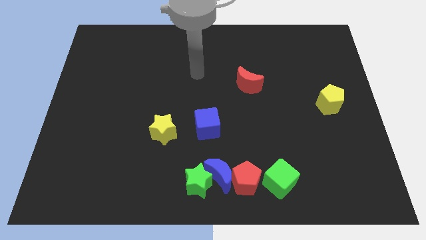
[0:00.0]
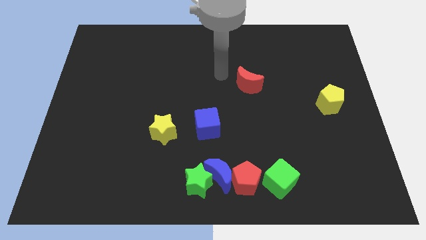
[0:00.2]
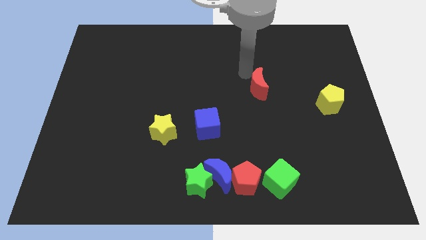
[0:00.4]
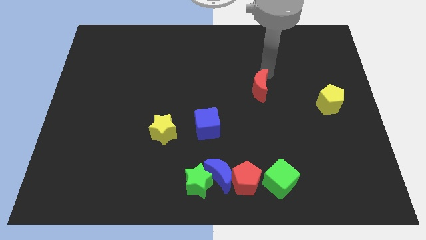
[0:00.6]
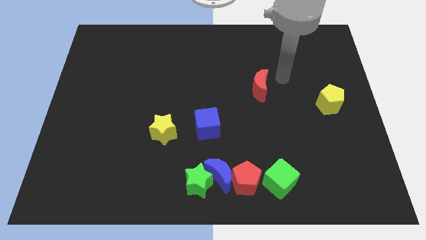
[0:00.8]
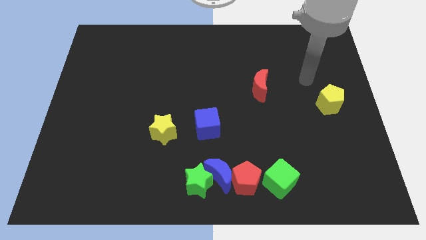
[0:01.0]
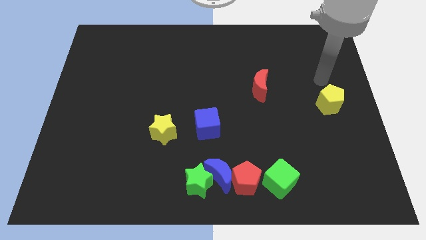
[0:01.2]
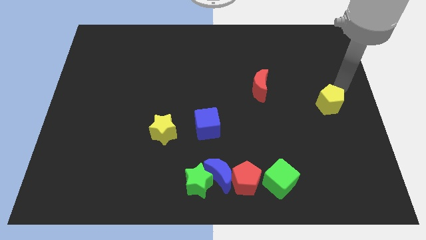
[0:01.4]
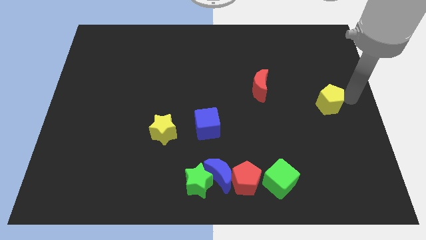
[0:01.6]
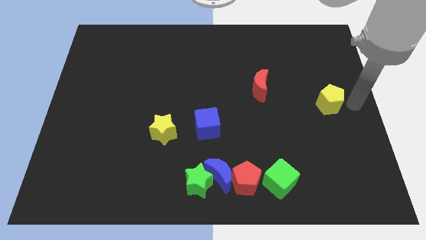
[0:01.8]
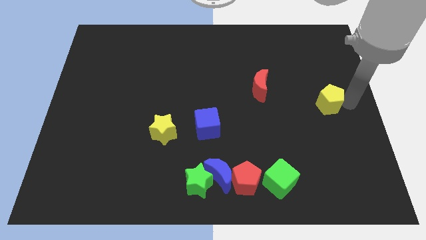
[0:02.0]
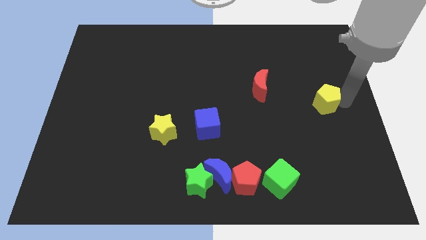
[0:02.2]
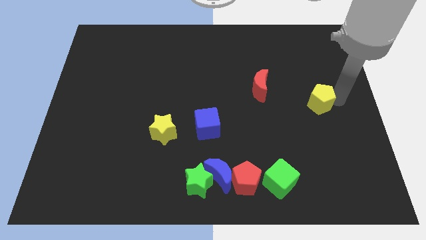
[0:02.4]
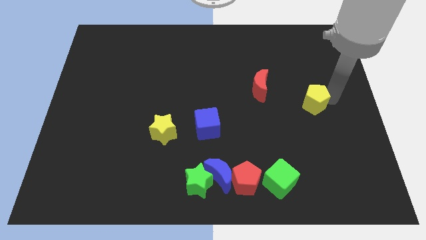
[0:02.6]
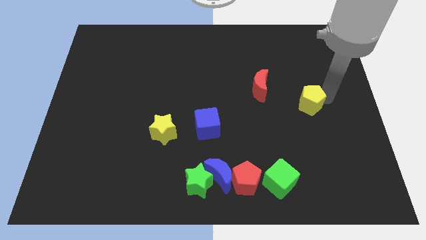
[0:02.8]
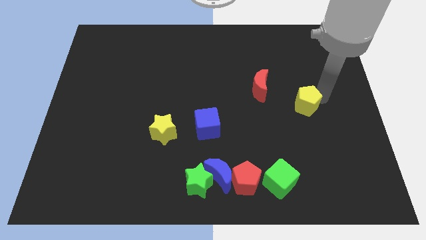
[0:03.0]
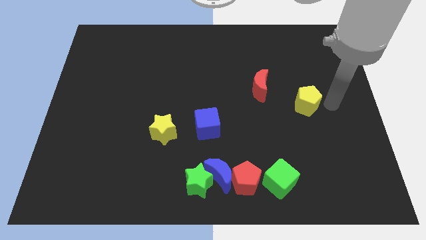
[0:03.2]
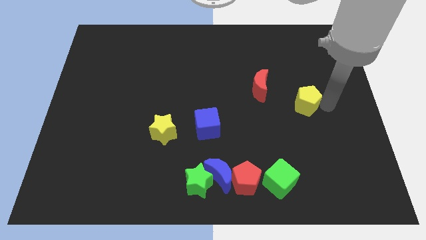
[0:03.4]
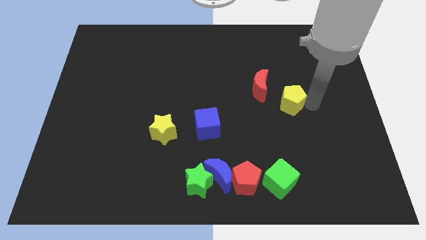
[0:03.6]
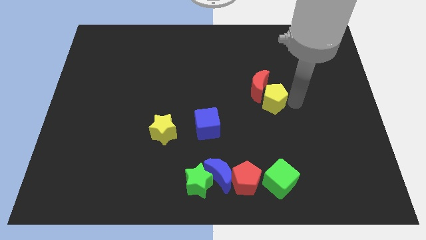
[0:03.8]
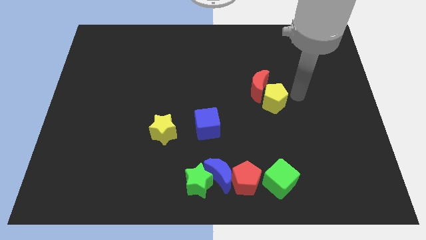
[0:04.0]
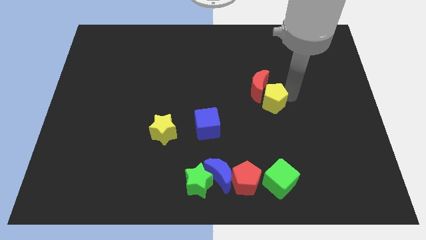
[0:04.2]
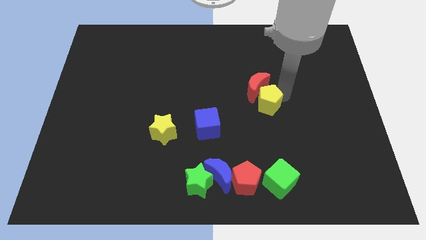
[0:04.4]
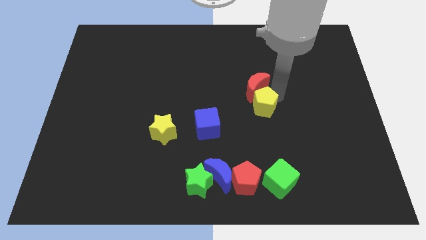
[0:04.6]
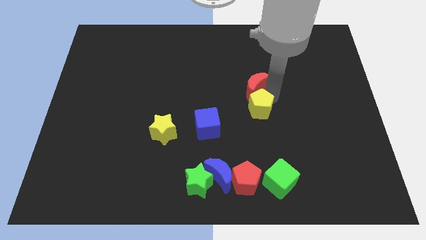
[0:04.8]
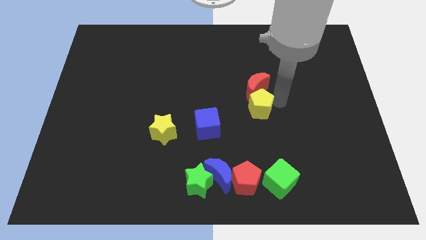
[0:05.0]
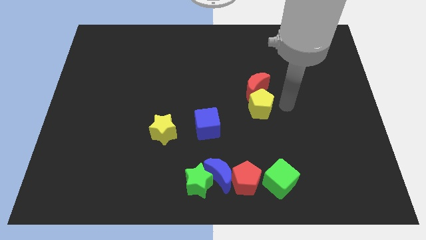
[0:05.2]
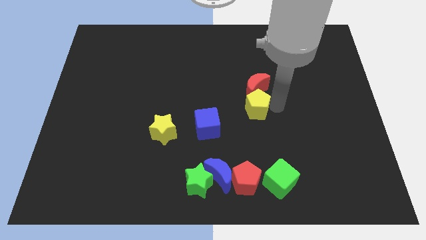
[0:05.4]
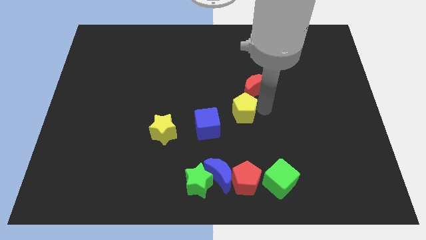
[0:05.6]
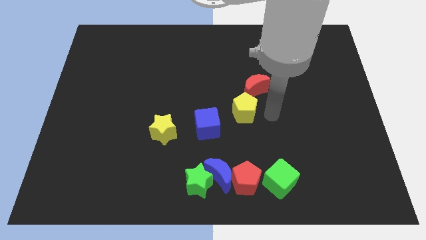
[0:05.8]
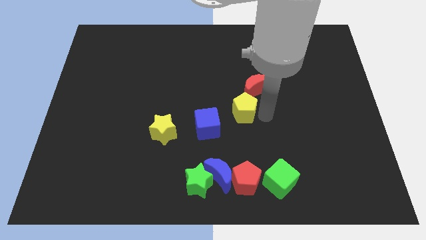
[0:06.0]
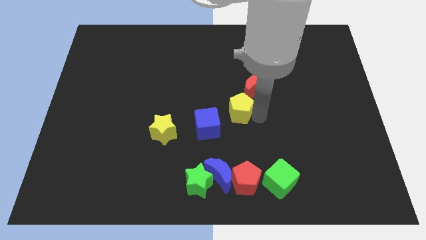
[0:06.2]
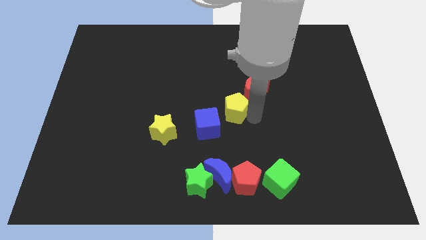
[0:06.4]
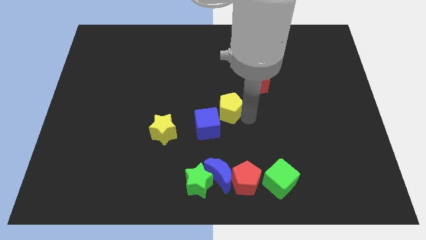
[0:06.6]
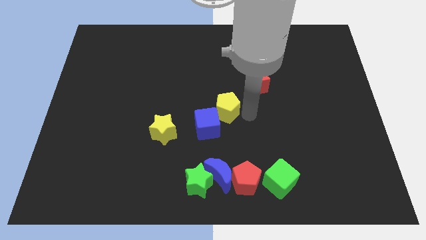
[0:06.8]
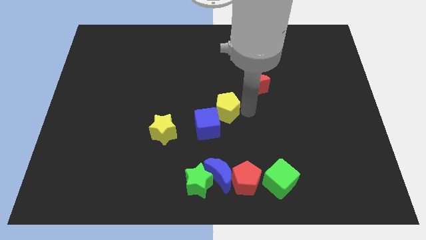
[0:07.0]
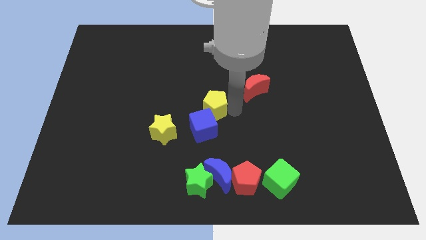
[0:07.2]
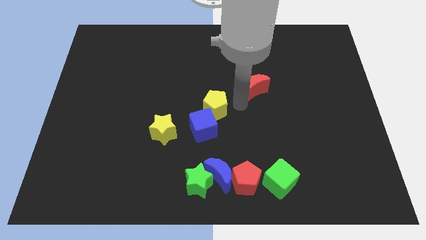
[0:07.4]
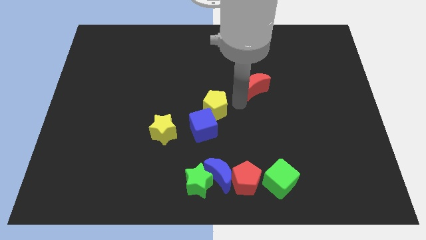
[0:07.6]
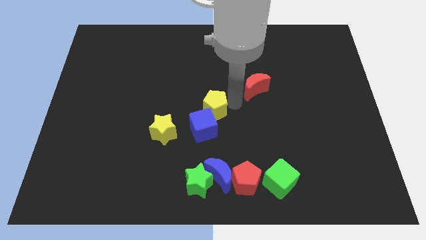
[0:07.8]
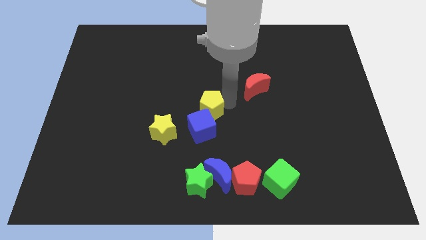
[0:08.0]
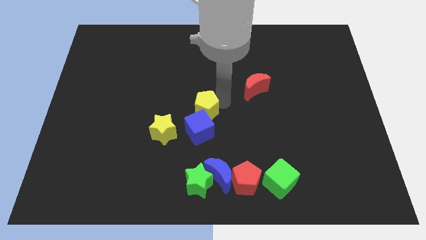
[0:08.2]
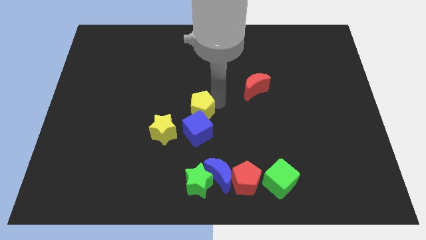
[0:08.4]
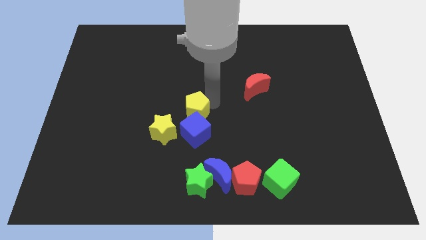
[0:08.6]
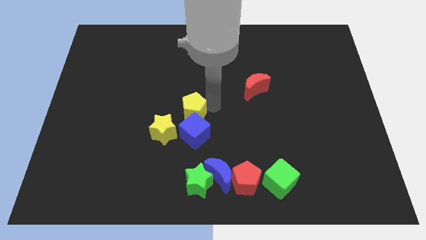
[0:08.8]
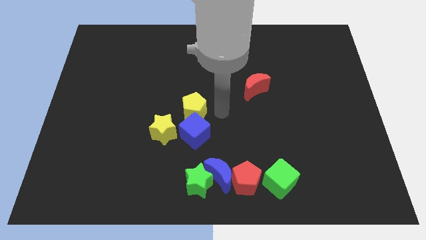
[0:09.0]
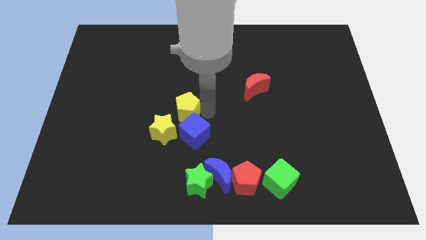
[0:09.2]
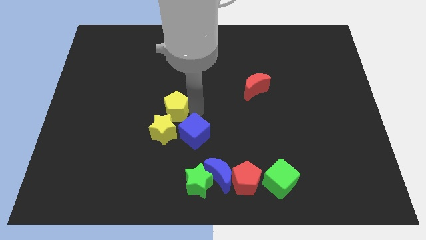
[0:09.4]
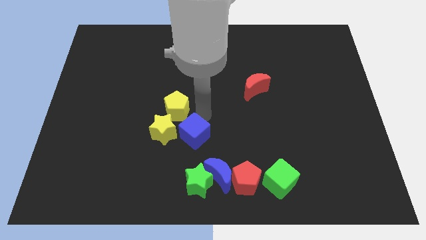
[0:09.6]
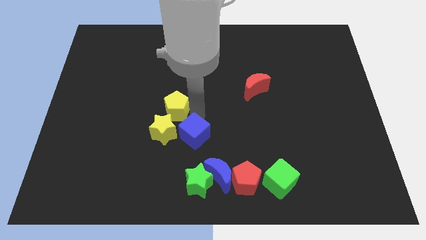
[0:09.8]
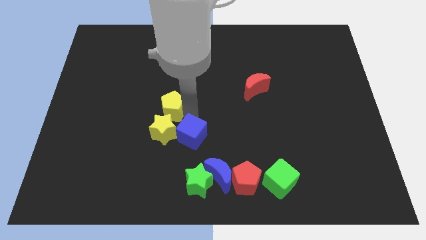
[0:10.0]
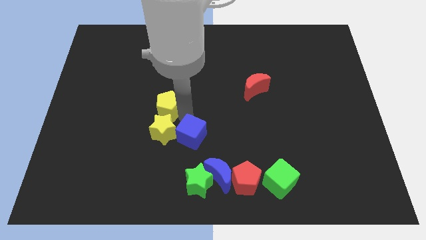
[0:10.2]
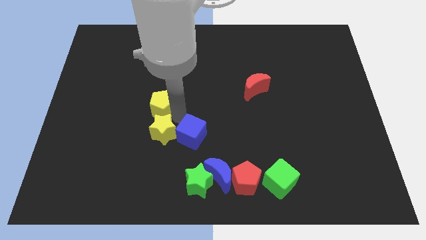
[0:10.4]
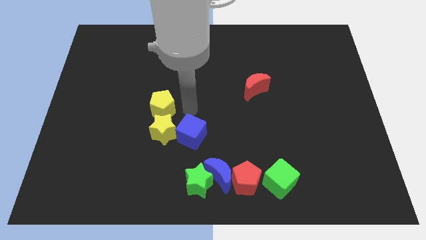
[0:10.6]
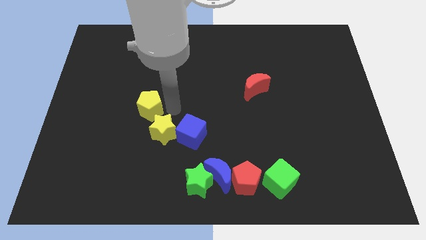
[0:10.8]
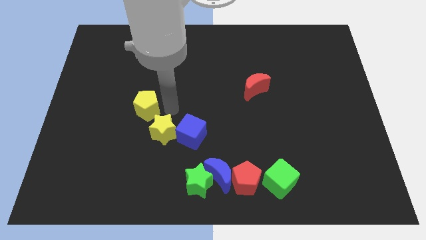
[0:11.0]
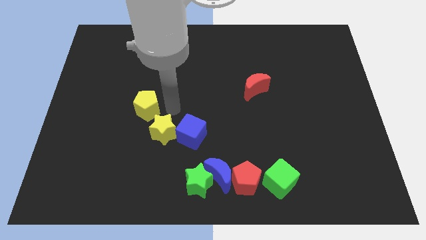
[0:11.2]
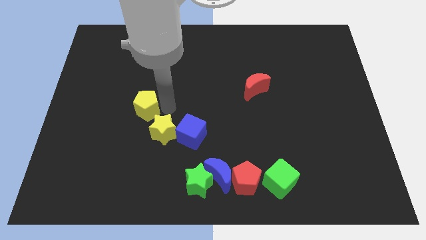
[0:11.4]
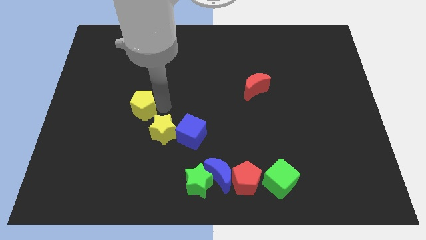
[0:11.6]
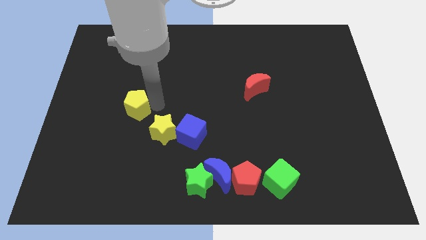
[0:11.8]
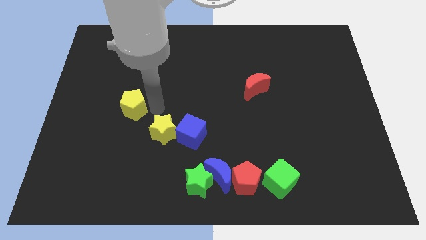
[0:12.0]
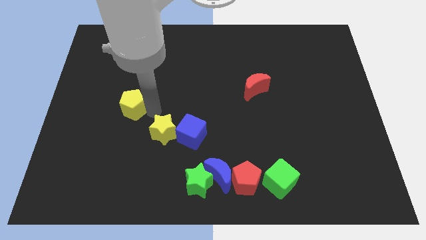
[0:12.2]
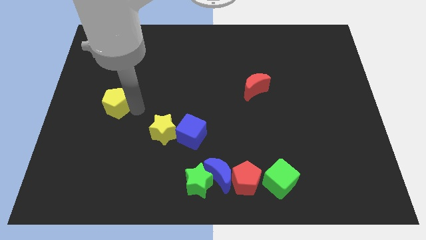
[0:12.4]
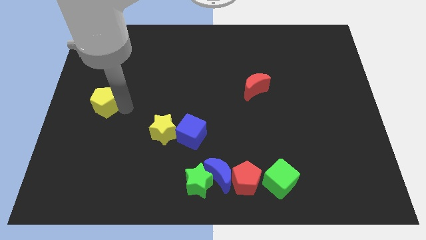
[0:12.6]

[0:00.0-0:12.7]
push the yellow pentagon to the left side
